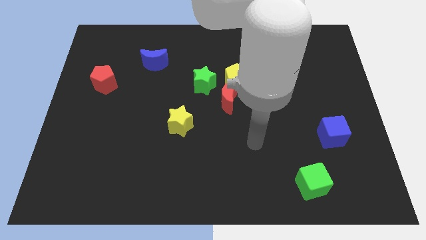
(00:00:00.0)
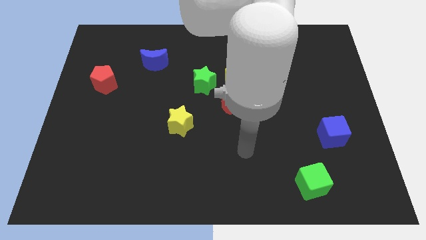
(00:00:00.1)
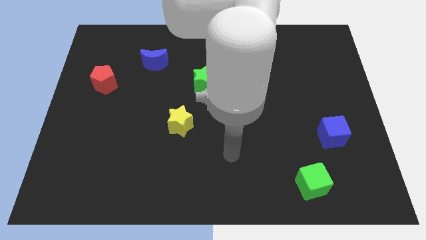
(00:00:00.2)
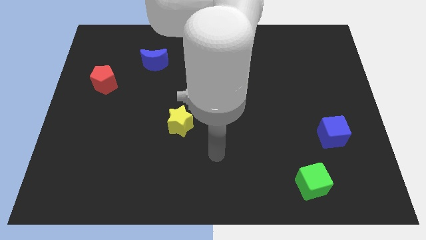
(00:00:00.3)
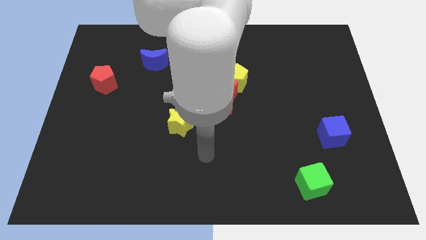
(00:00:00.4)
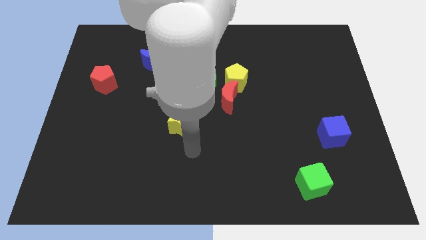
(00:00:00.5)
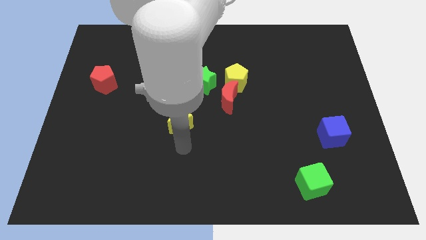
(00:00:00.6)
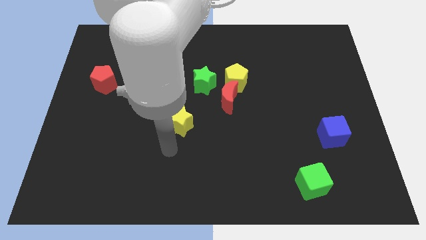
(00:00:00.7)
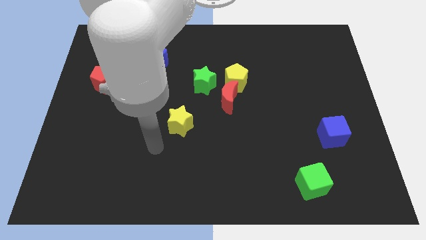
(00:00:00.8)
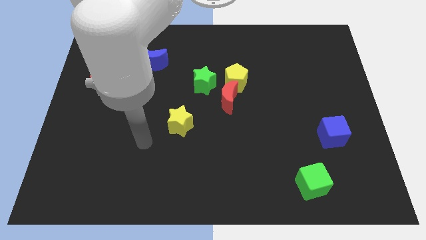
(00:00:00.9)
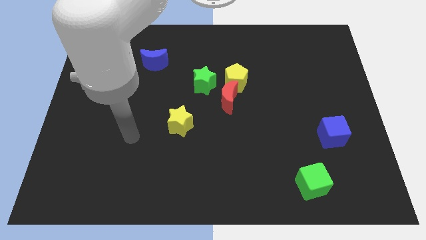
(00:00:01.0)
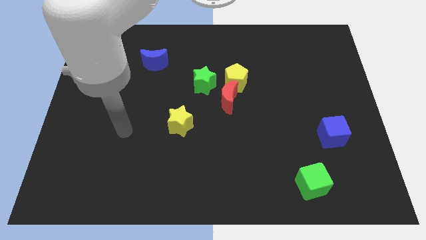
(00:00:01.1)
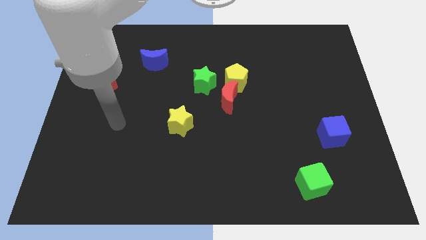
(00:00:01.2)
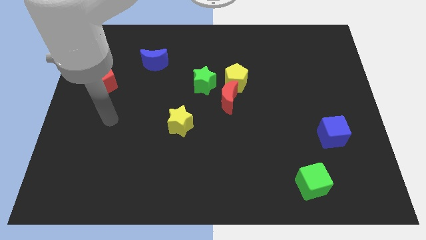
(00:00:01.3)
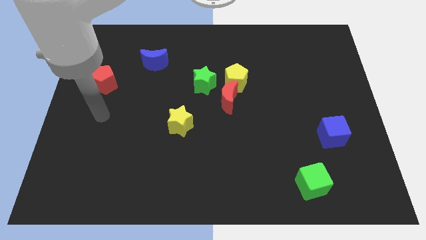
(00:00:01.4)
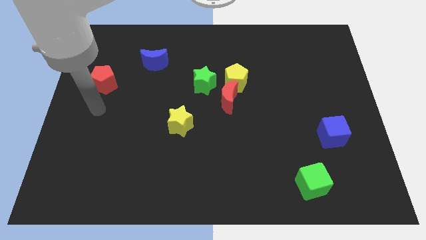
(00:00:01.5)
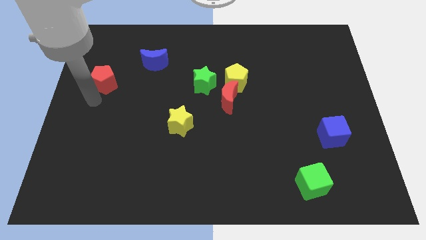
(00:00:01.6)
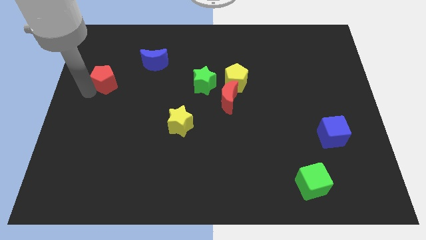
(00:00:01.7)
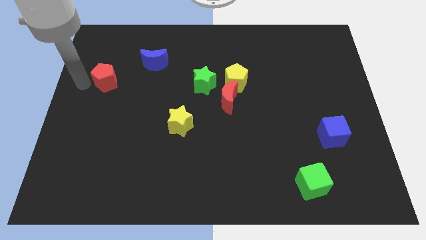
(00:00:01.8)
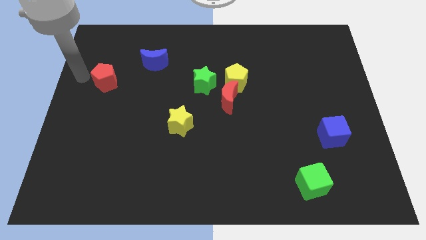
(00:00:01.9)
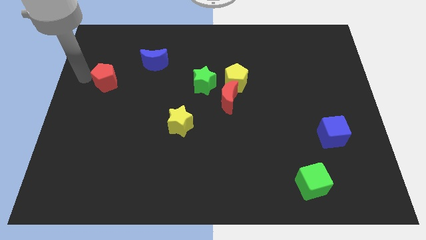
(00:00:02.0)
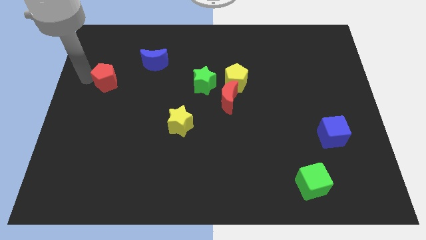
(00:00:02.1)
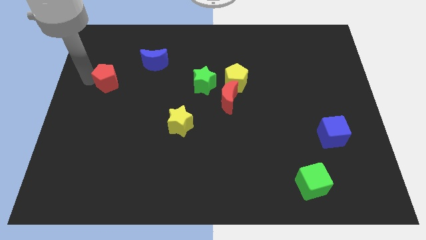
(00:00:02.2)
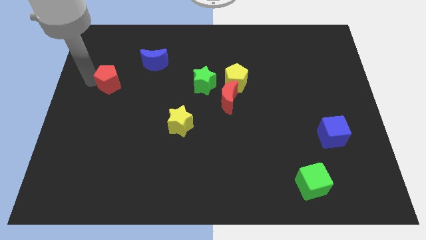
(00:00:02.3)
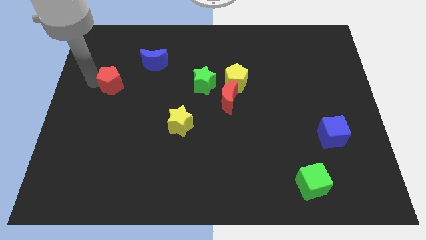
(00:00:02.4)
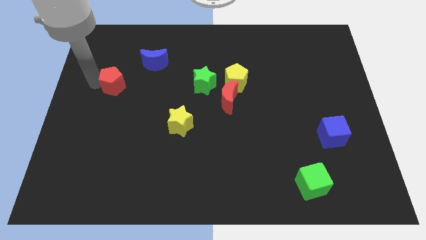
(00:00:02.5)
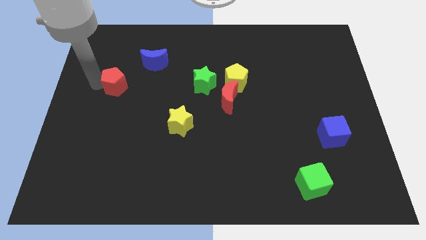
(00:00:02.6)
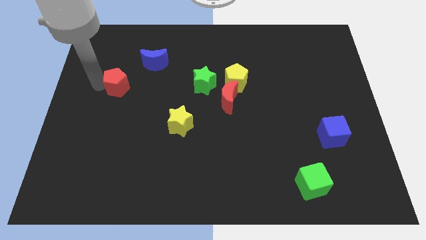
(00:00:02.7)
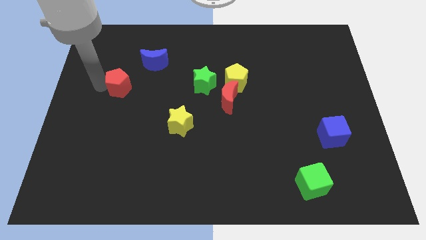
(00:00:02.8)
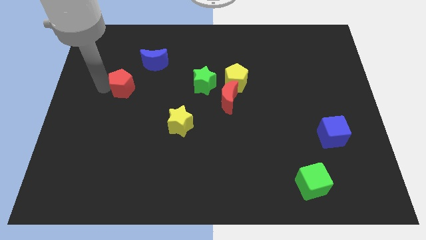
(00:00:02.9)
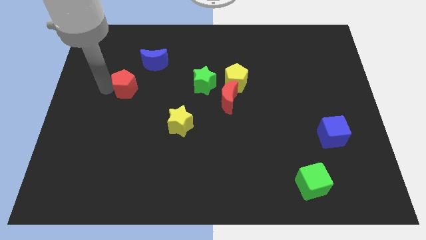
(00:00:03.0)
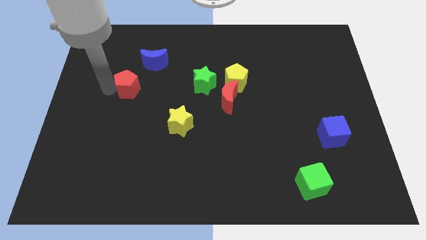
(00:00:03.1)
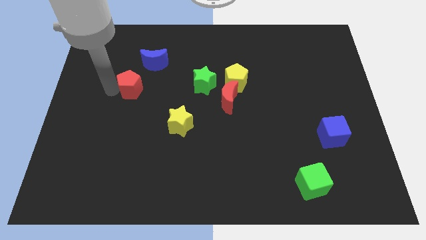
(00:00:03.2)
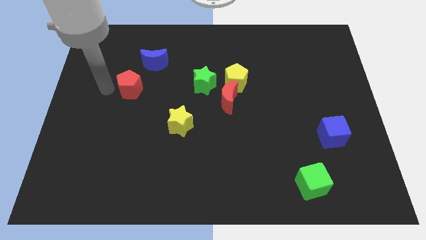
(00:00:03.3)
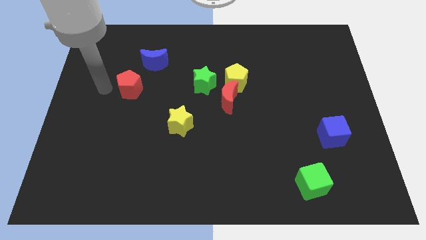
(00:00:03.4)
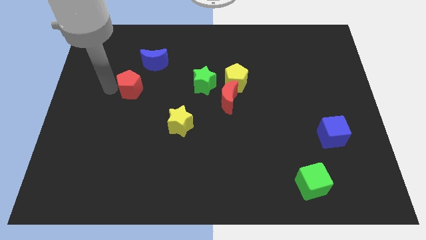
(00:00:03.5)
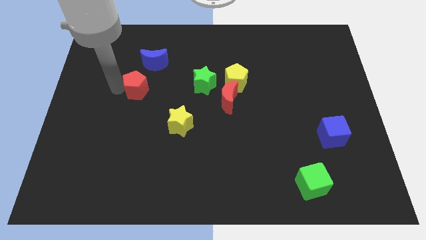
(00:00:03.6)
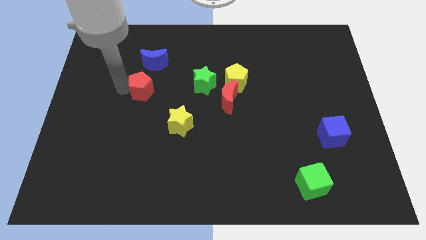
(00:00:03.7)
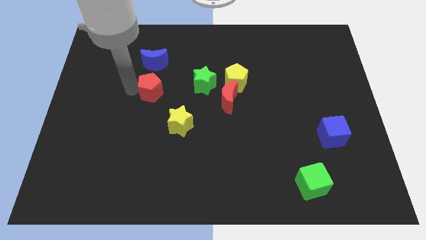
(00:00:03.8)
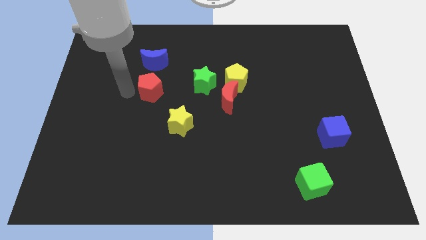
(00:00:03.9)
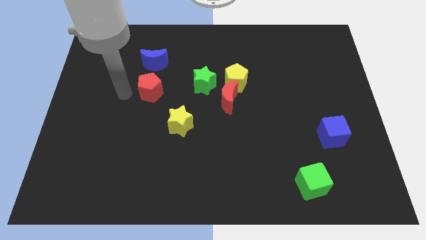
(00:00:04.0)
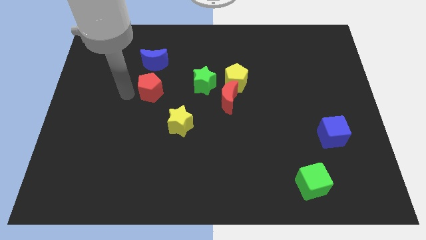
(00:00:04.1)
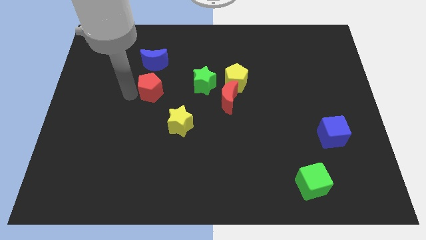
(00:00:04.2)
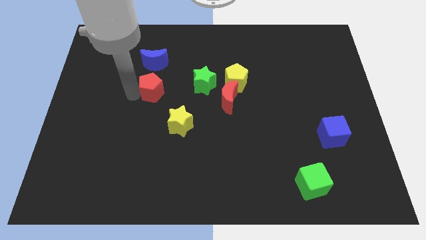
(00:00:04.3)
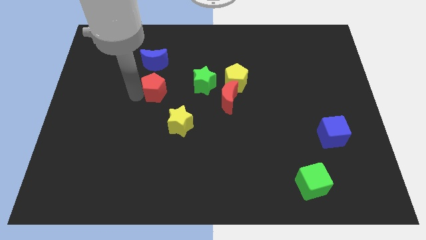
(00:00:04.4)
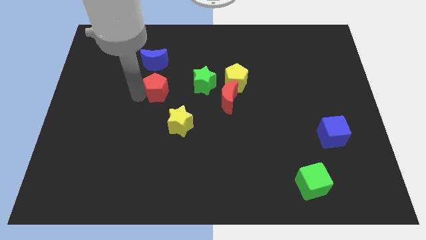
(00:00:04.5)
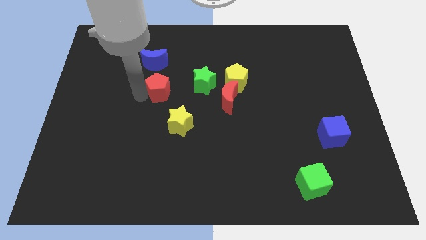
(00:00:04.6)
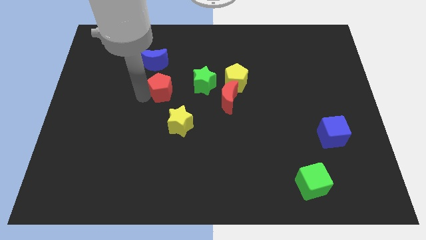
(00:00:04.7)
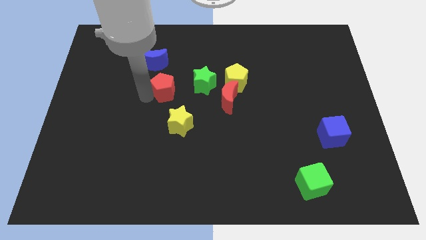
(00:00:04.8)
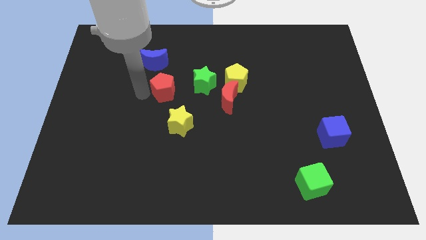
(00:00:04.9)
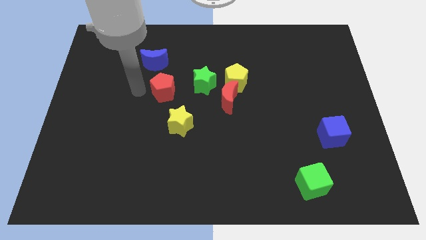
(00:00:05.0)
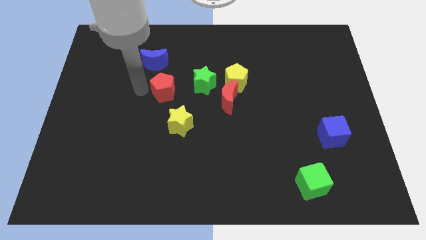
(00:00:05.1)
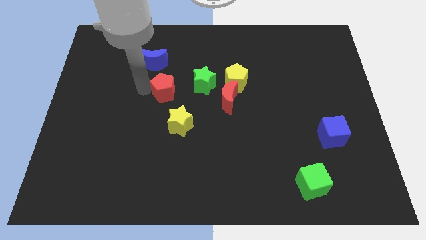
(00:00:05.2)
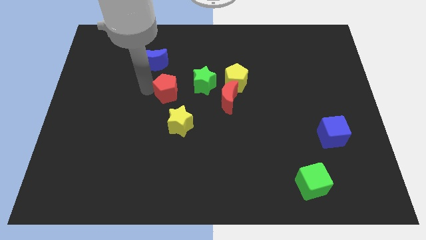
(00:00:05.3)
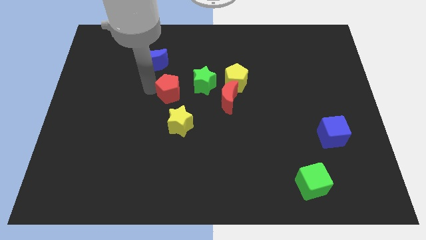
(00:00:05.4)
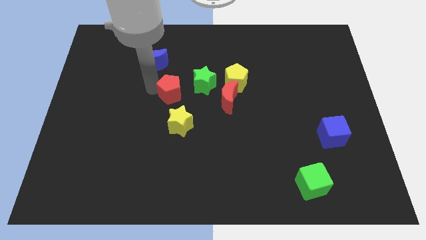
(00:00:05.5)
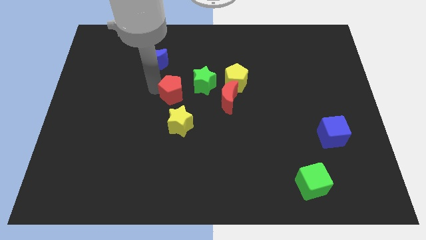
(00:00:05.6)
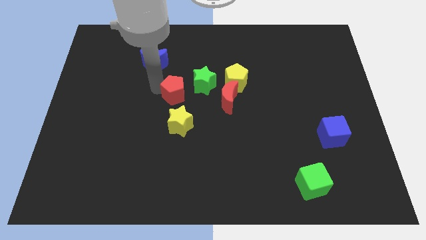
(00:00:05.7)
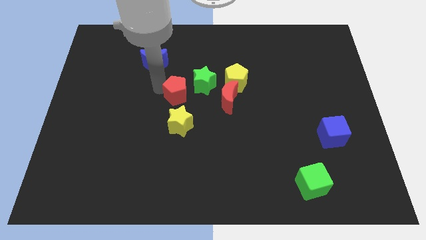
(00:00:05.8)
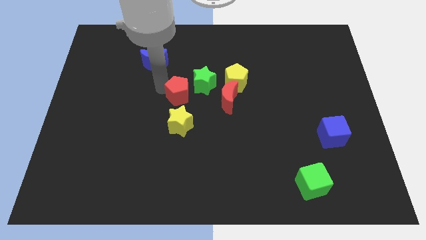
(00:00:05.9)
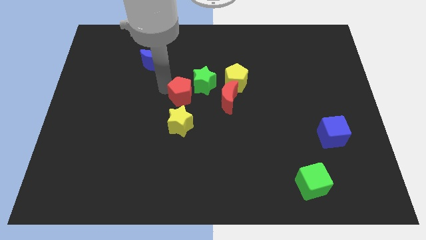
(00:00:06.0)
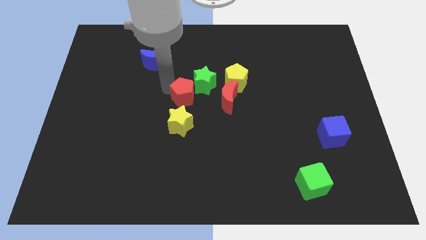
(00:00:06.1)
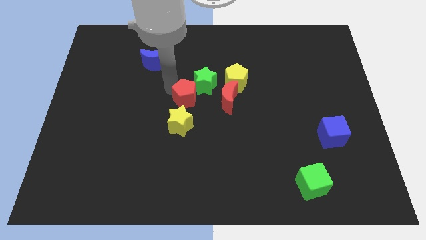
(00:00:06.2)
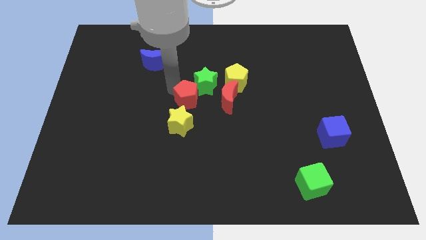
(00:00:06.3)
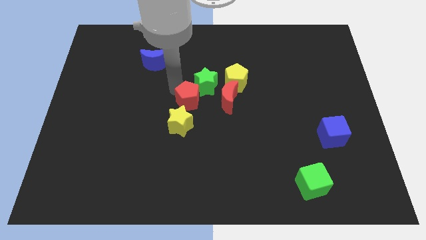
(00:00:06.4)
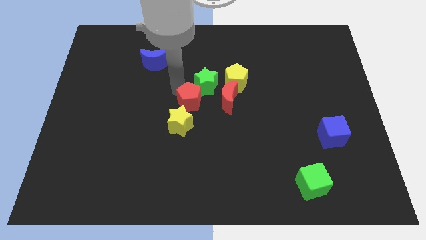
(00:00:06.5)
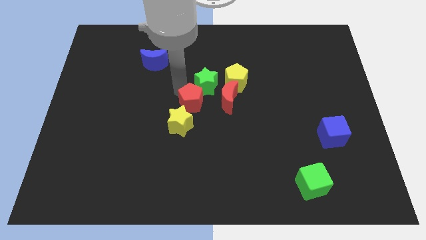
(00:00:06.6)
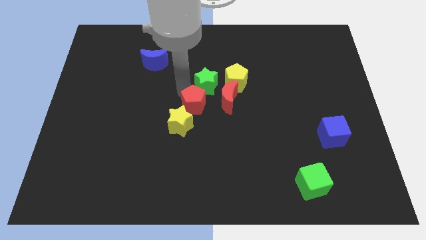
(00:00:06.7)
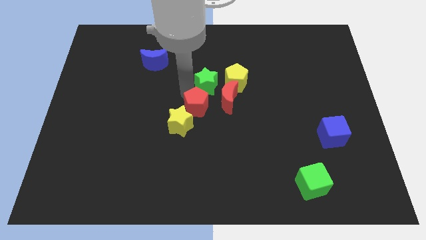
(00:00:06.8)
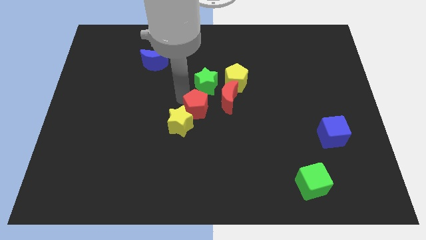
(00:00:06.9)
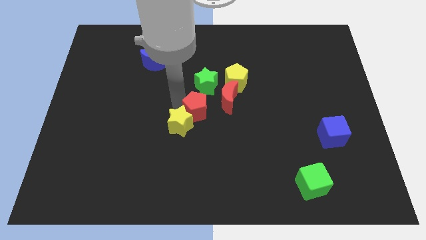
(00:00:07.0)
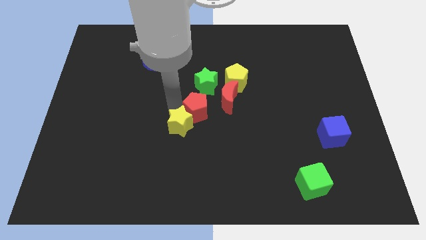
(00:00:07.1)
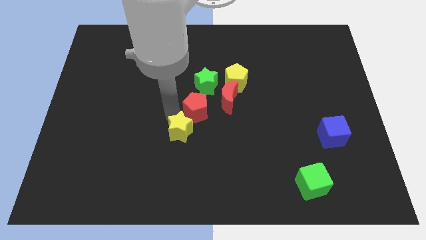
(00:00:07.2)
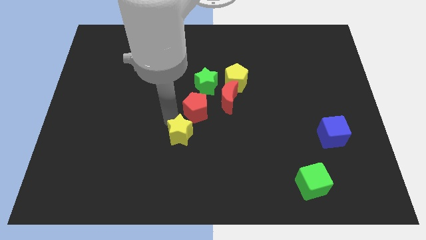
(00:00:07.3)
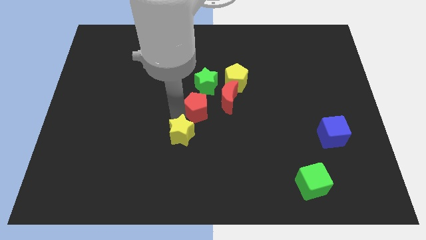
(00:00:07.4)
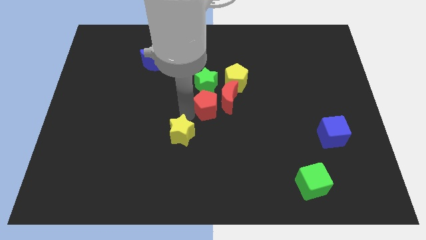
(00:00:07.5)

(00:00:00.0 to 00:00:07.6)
slide the red pentagon to the red moon
